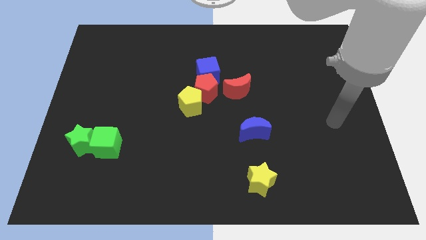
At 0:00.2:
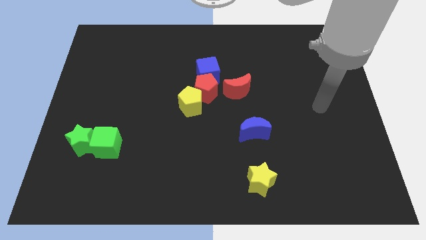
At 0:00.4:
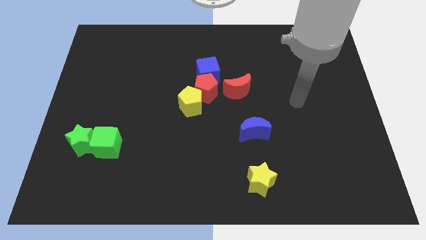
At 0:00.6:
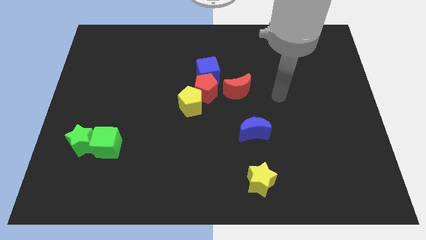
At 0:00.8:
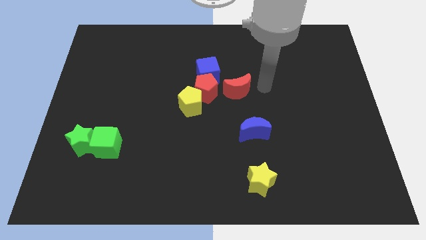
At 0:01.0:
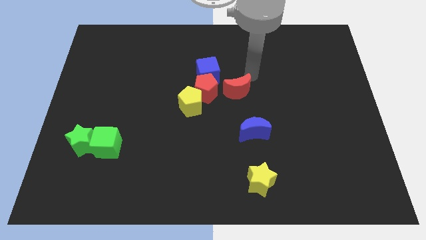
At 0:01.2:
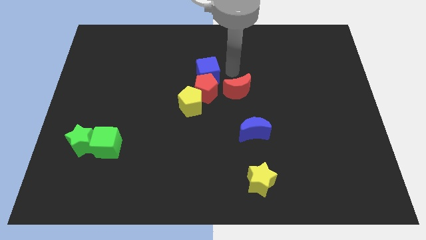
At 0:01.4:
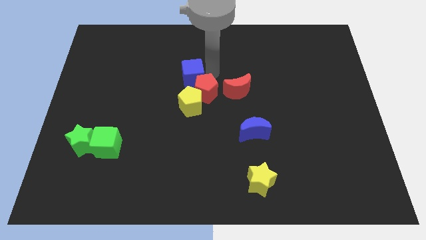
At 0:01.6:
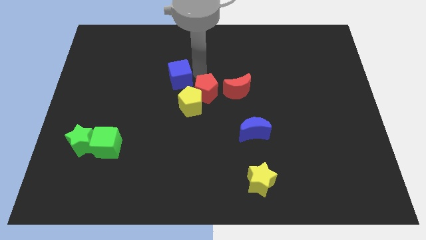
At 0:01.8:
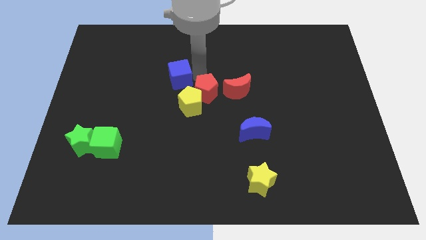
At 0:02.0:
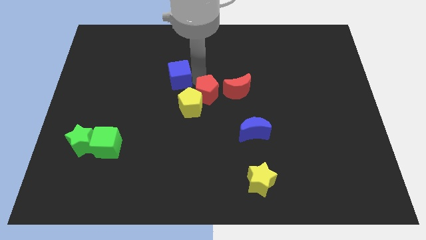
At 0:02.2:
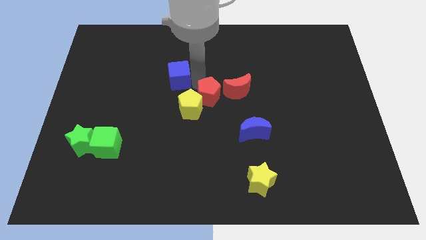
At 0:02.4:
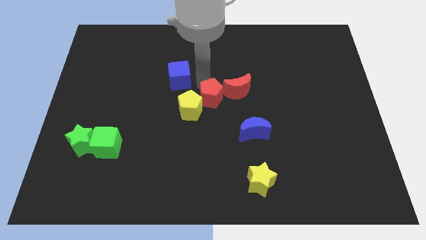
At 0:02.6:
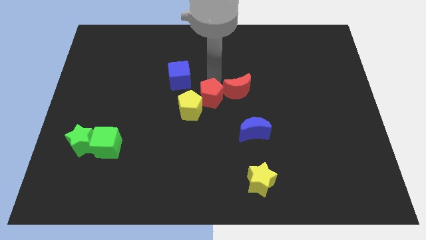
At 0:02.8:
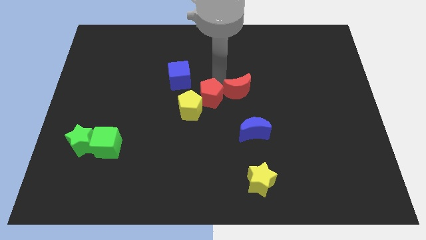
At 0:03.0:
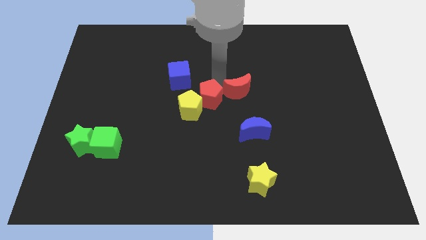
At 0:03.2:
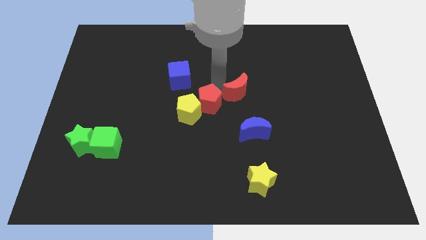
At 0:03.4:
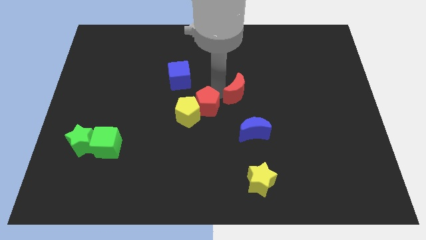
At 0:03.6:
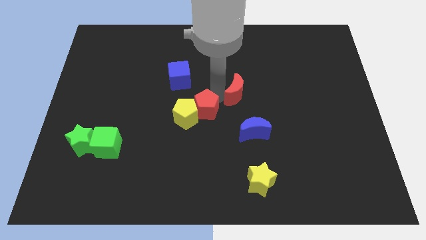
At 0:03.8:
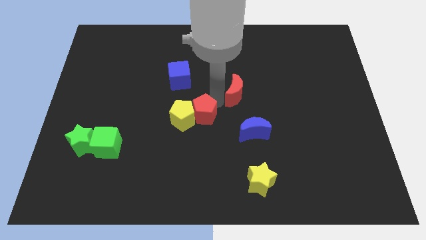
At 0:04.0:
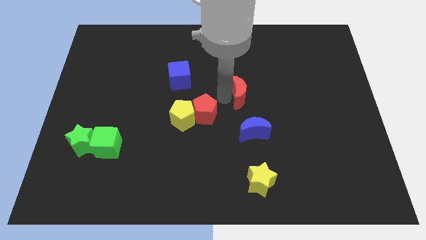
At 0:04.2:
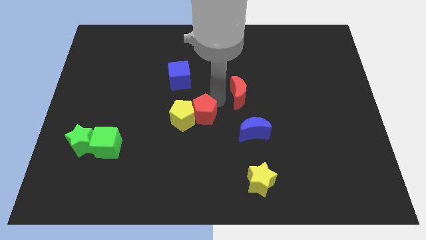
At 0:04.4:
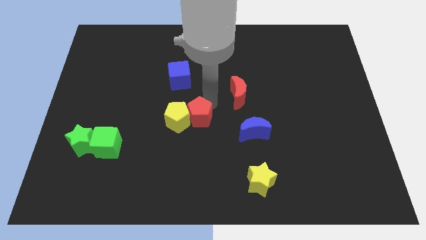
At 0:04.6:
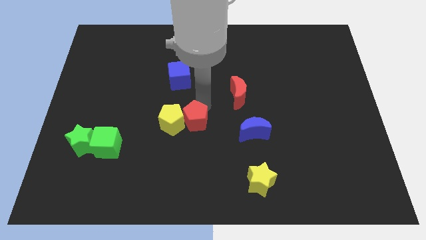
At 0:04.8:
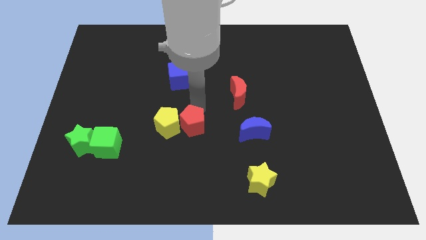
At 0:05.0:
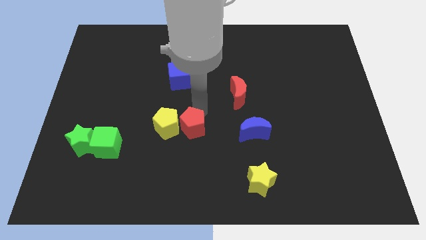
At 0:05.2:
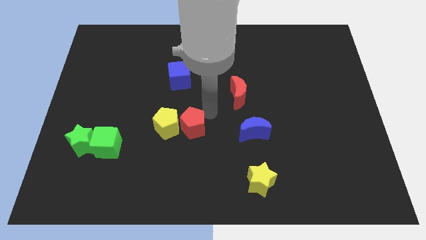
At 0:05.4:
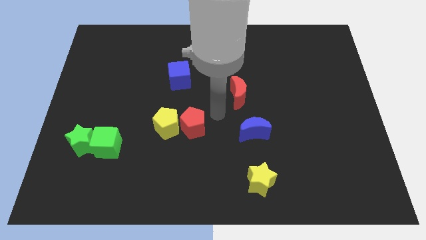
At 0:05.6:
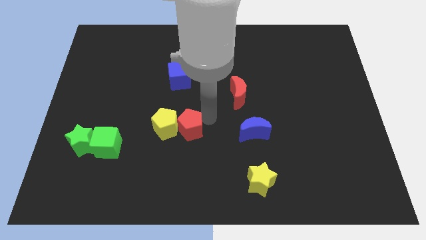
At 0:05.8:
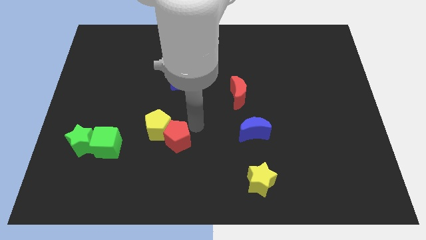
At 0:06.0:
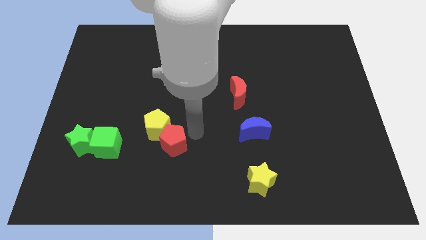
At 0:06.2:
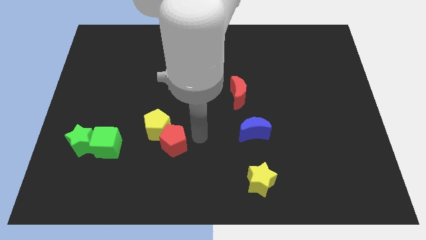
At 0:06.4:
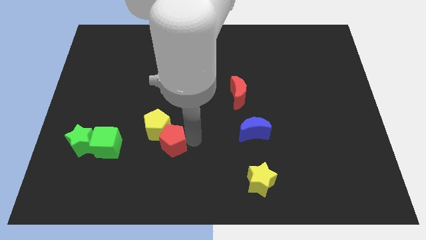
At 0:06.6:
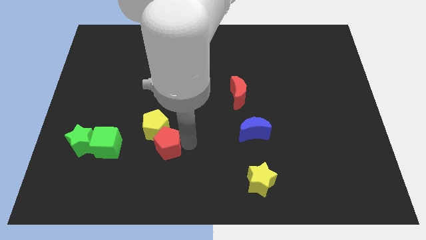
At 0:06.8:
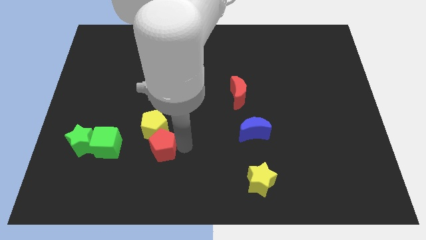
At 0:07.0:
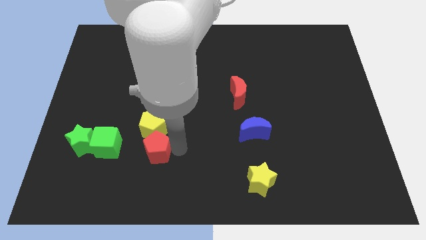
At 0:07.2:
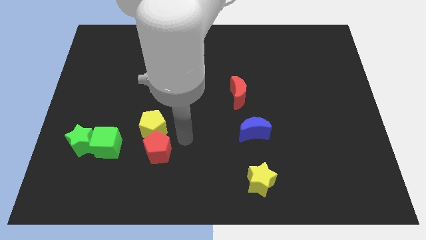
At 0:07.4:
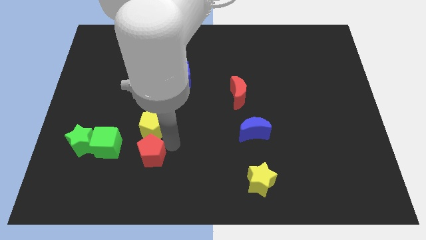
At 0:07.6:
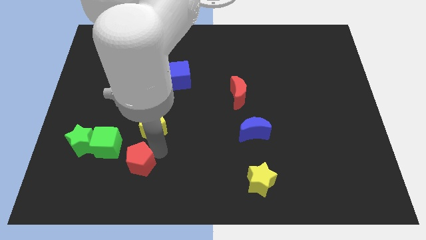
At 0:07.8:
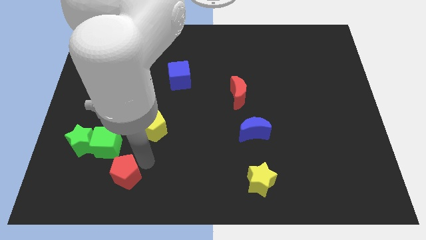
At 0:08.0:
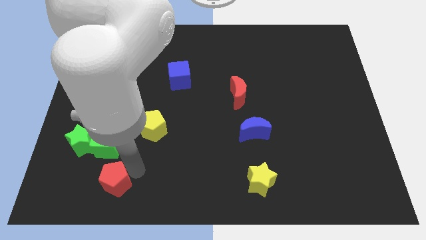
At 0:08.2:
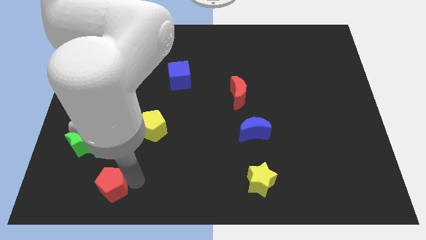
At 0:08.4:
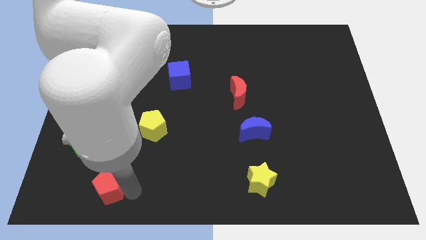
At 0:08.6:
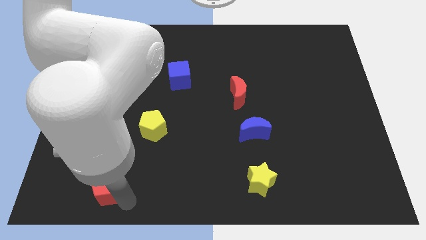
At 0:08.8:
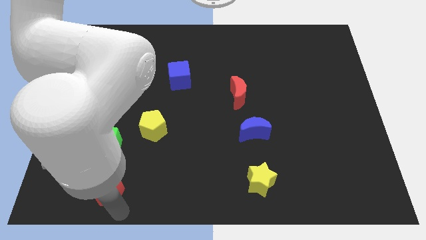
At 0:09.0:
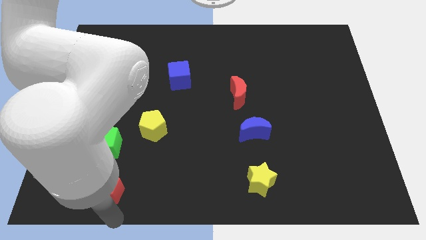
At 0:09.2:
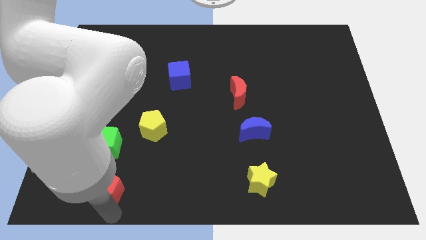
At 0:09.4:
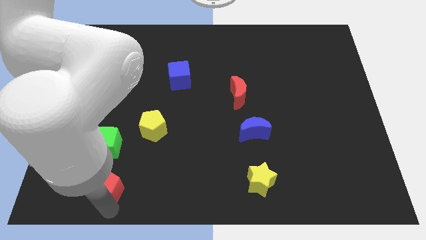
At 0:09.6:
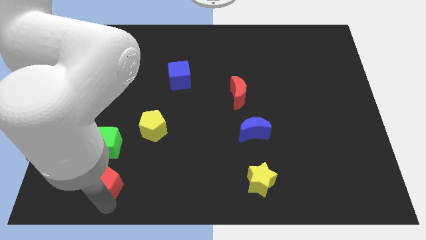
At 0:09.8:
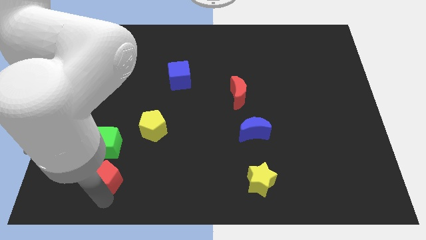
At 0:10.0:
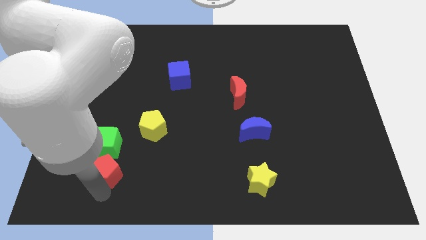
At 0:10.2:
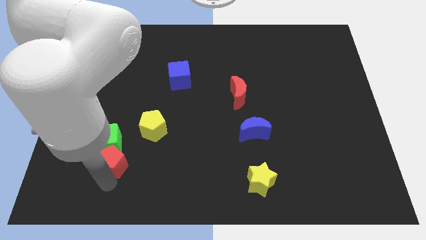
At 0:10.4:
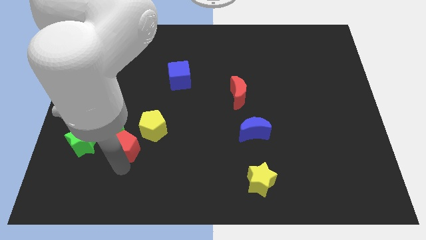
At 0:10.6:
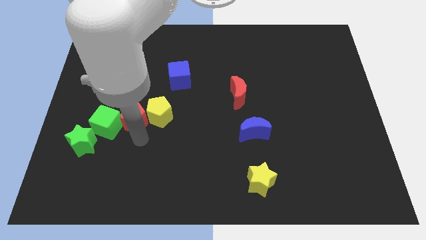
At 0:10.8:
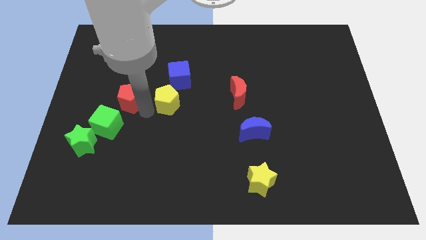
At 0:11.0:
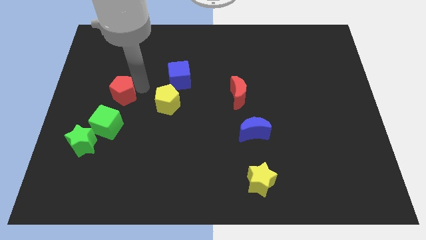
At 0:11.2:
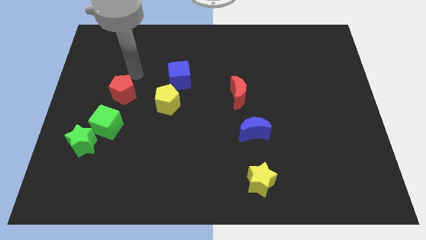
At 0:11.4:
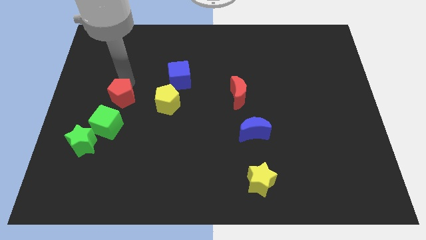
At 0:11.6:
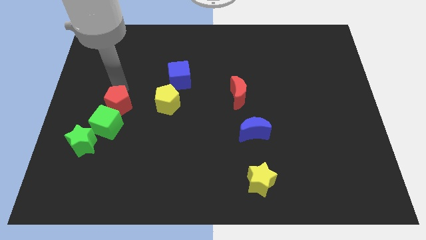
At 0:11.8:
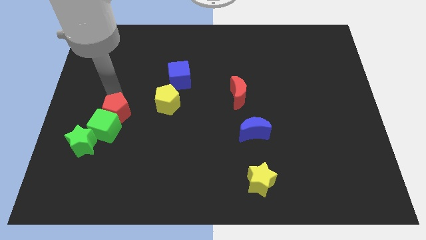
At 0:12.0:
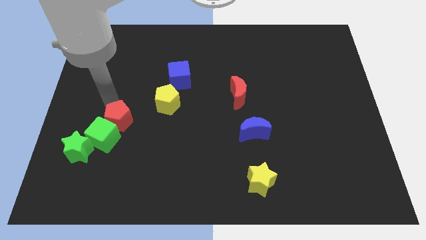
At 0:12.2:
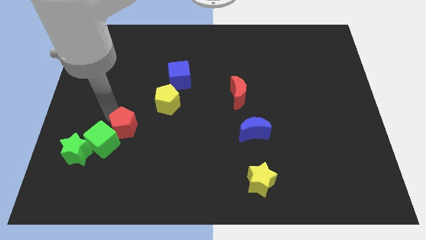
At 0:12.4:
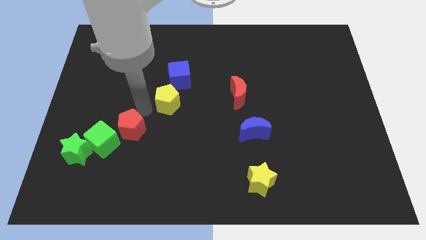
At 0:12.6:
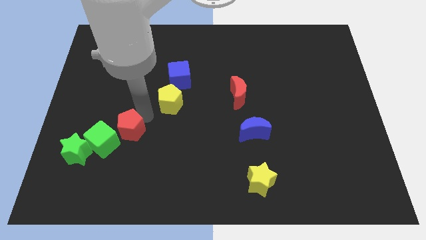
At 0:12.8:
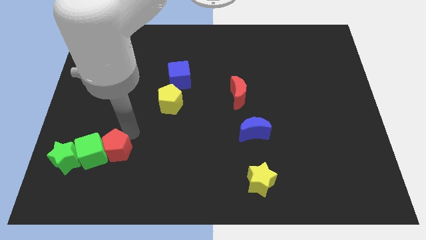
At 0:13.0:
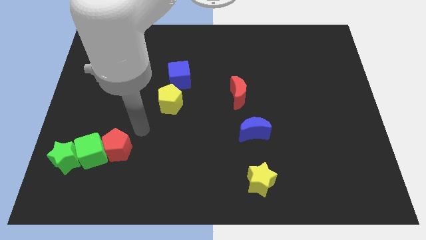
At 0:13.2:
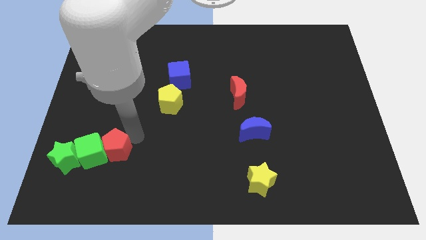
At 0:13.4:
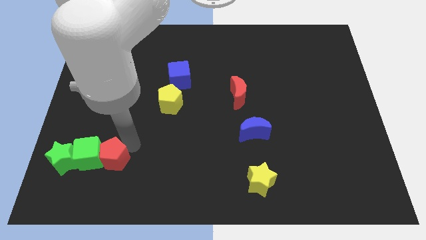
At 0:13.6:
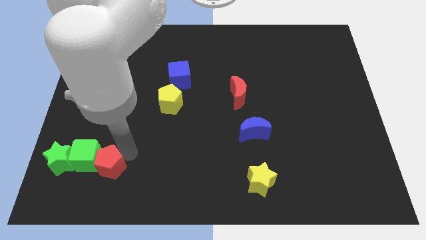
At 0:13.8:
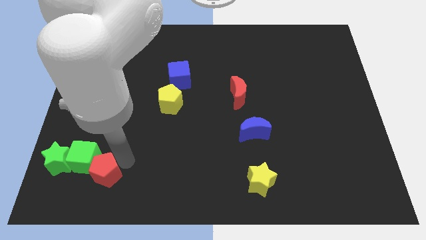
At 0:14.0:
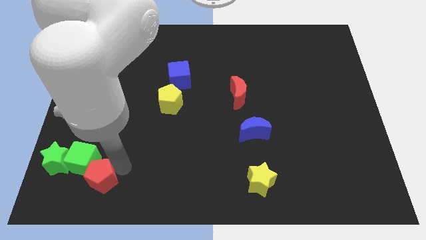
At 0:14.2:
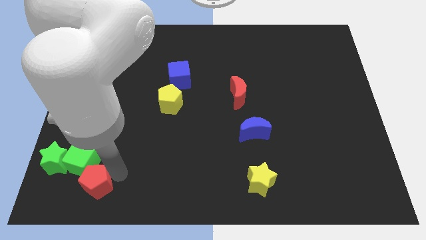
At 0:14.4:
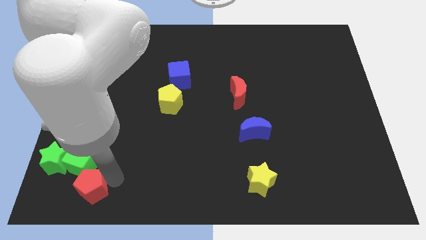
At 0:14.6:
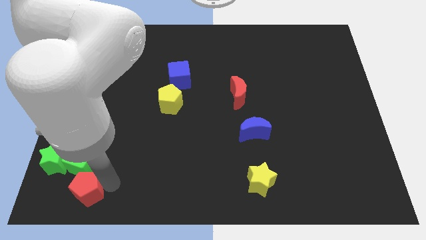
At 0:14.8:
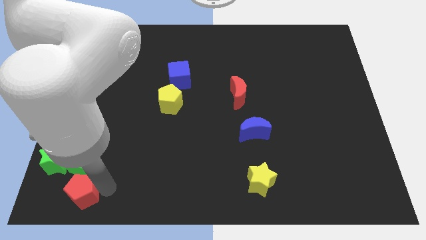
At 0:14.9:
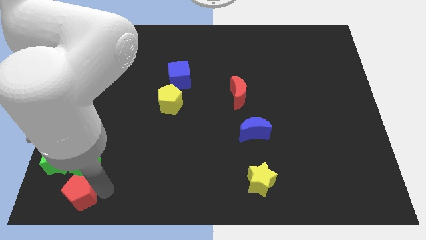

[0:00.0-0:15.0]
put the red pentagon to the bottom left of the board
